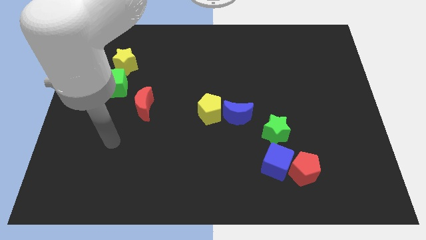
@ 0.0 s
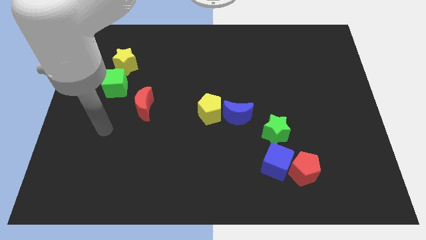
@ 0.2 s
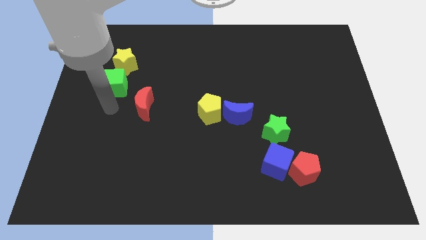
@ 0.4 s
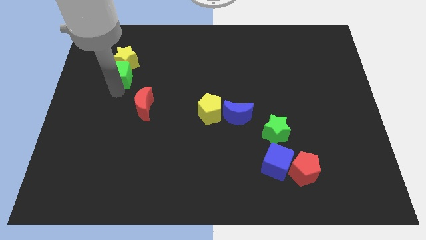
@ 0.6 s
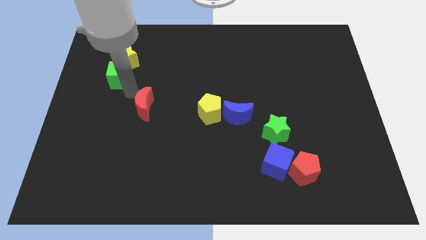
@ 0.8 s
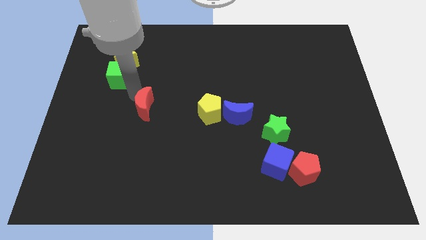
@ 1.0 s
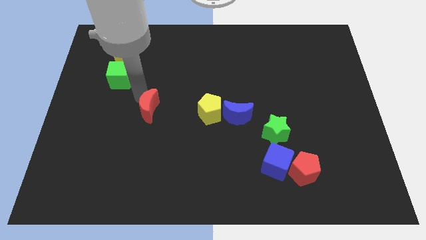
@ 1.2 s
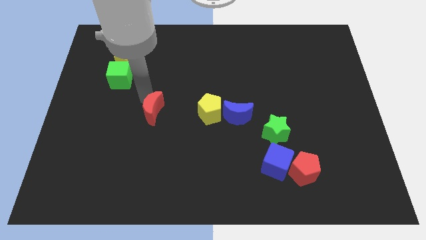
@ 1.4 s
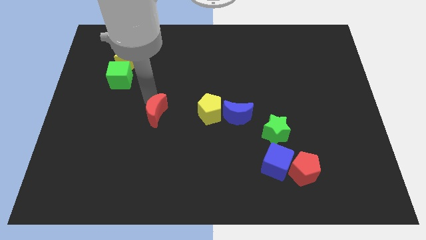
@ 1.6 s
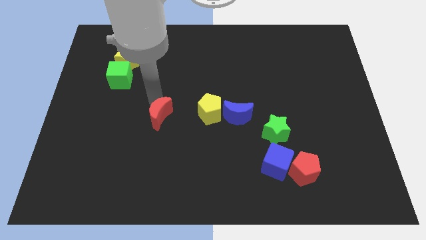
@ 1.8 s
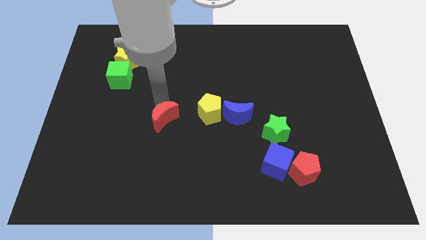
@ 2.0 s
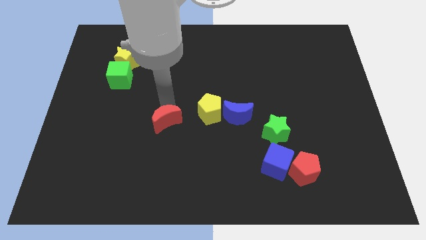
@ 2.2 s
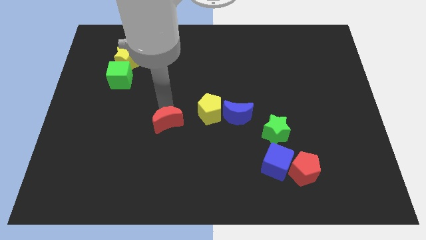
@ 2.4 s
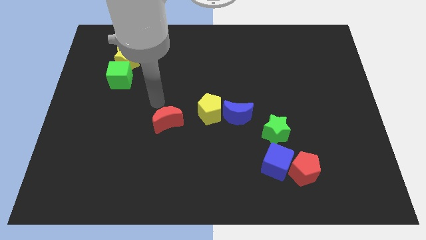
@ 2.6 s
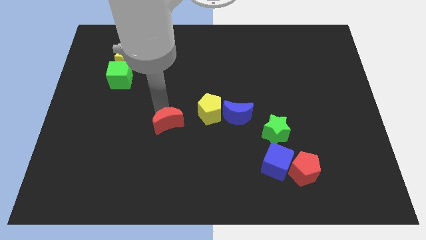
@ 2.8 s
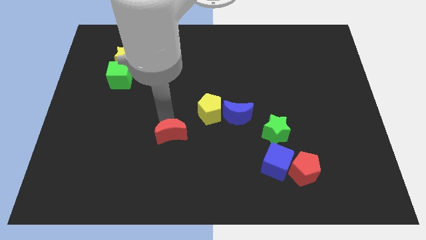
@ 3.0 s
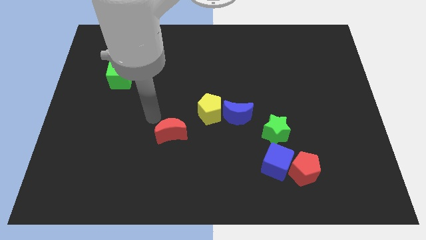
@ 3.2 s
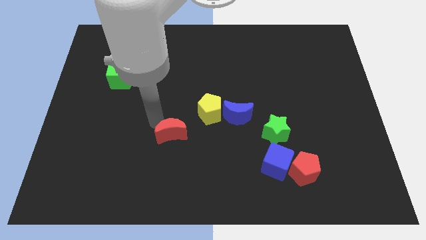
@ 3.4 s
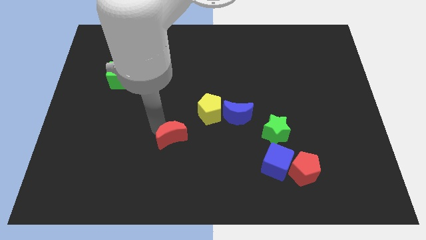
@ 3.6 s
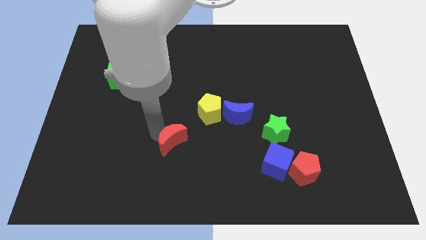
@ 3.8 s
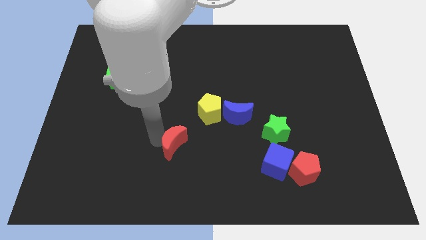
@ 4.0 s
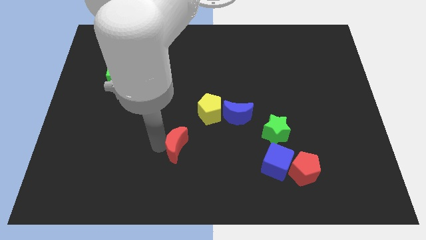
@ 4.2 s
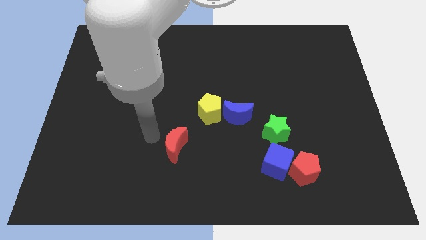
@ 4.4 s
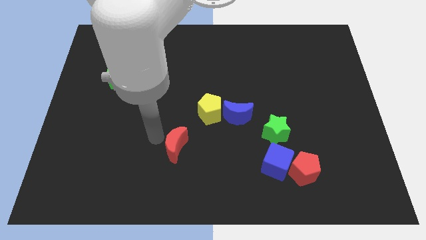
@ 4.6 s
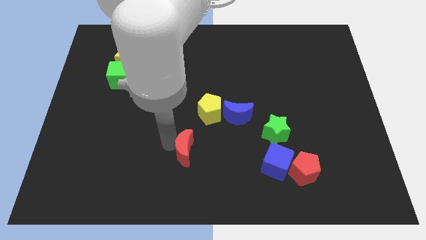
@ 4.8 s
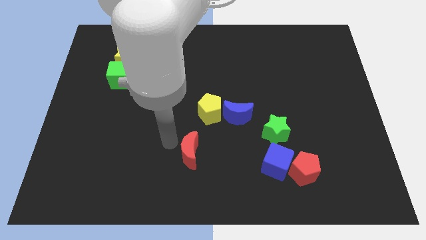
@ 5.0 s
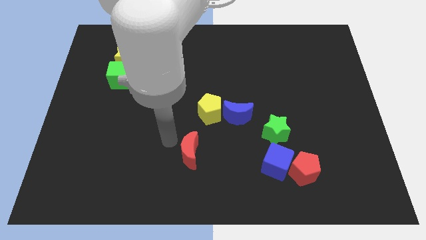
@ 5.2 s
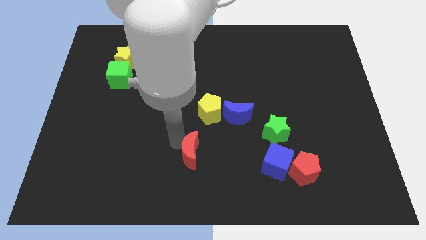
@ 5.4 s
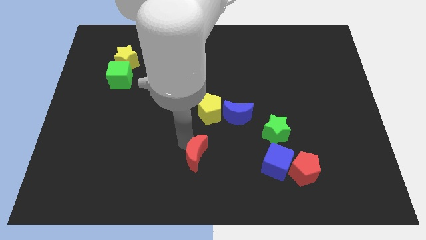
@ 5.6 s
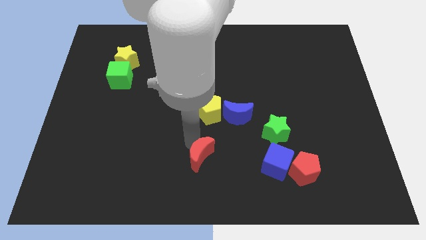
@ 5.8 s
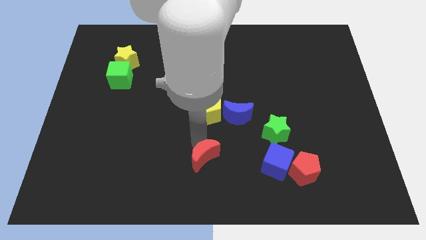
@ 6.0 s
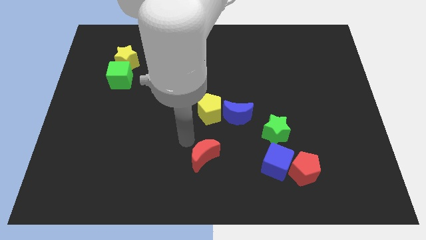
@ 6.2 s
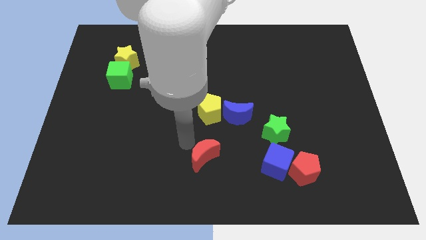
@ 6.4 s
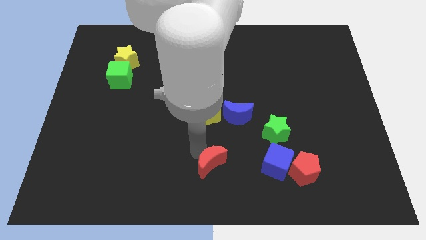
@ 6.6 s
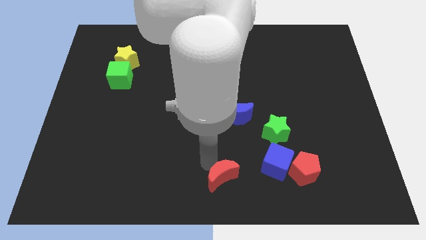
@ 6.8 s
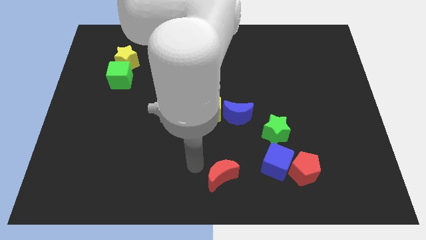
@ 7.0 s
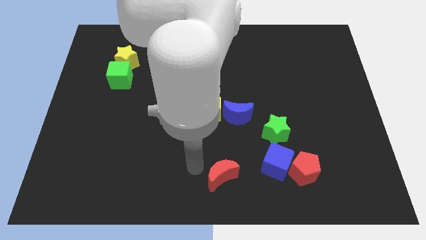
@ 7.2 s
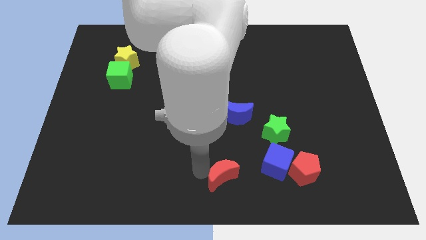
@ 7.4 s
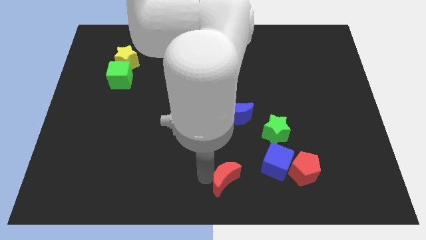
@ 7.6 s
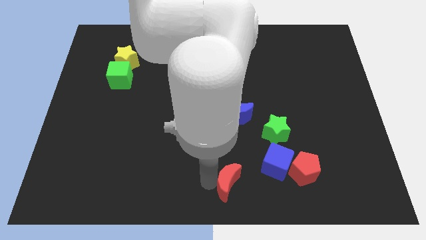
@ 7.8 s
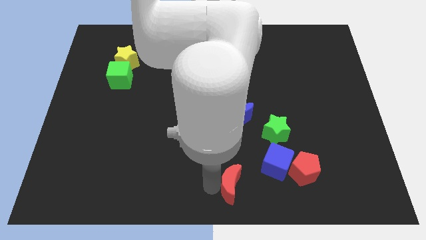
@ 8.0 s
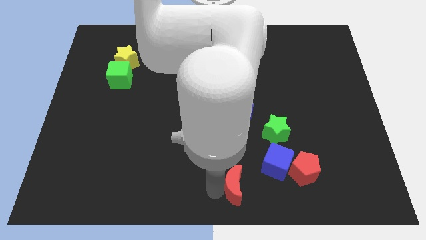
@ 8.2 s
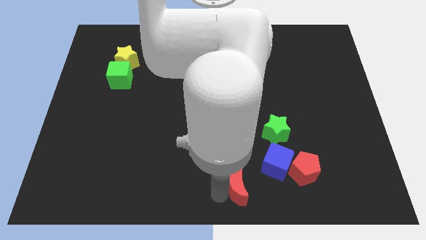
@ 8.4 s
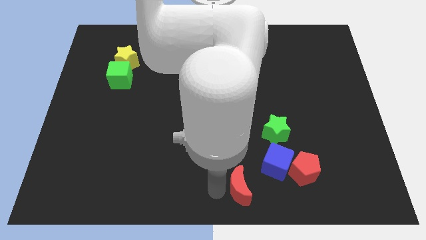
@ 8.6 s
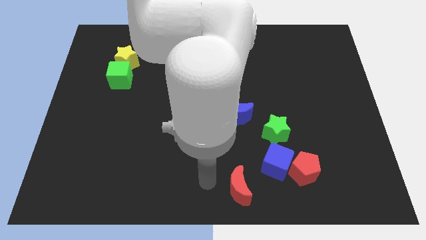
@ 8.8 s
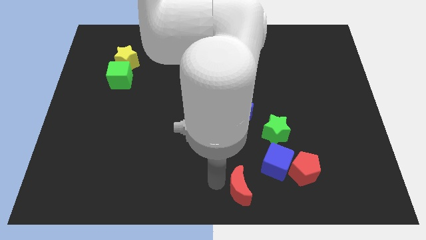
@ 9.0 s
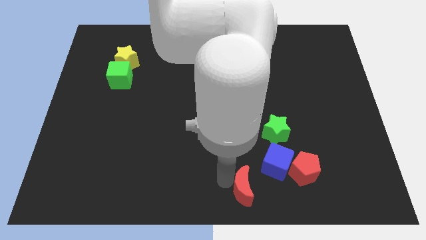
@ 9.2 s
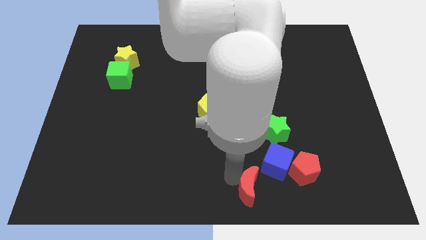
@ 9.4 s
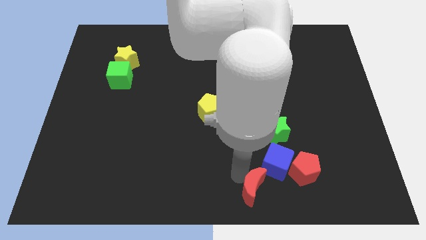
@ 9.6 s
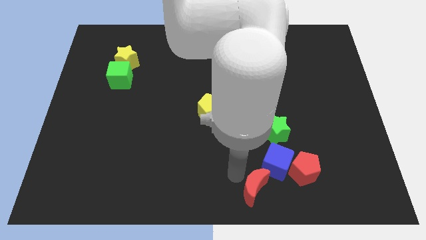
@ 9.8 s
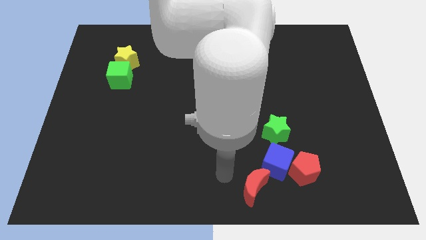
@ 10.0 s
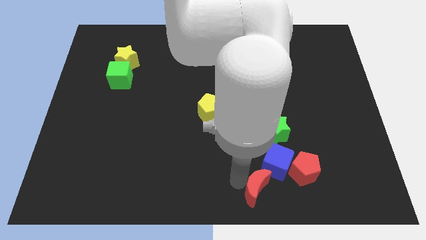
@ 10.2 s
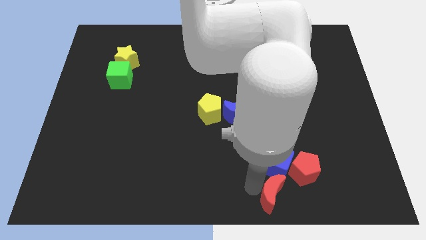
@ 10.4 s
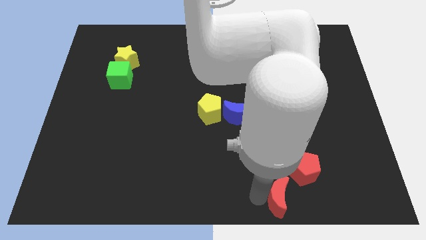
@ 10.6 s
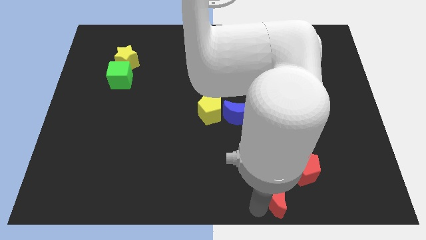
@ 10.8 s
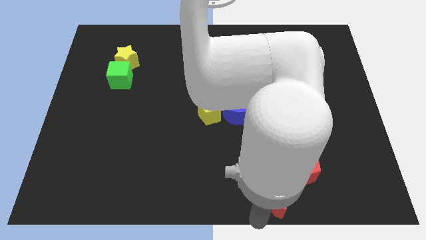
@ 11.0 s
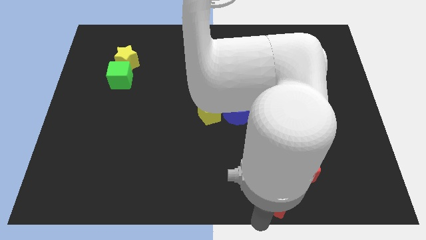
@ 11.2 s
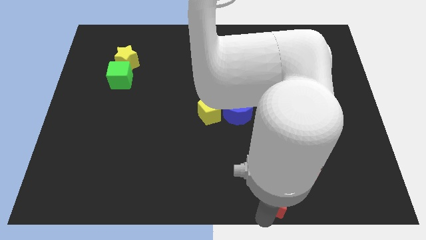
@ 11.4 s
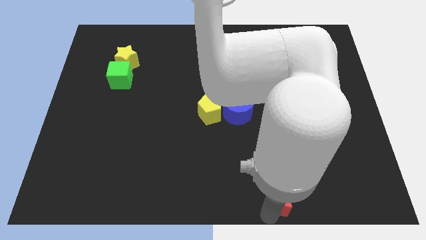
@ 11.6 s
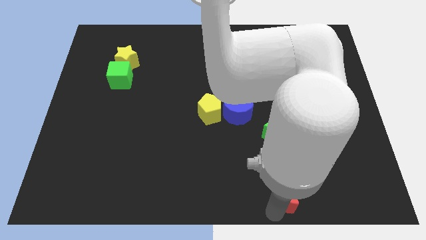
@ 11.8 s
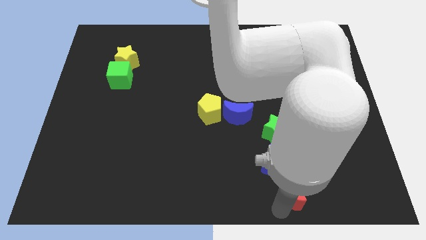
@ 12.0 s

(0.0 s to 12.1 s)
put the red moon towards the red pentagon

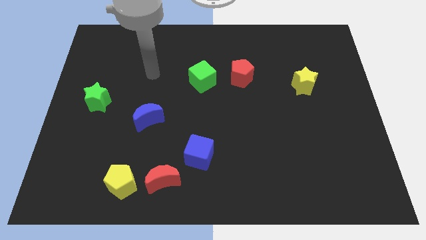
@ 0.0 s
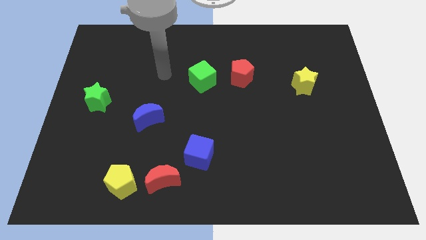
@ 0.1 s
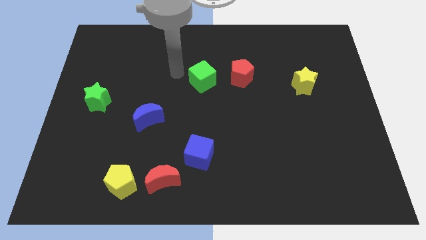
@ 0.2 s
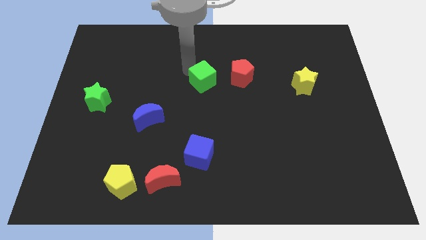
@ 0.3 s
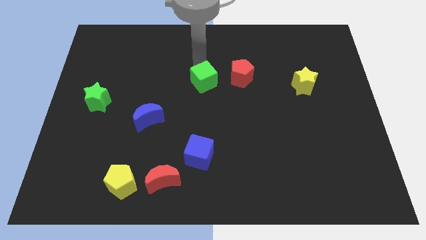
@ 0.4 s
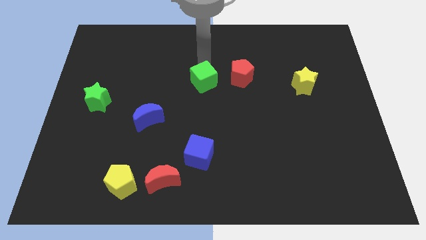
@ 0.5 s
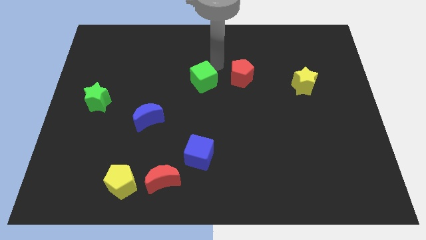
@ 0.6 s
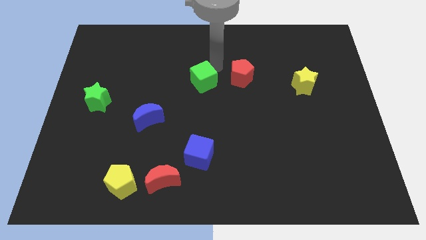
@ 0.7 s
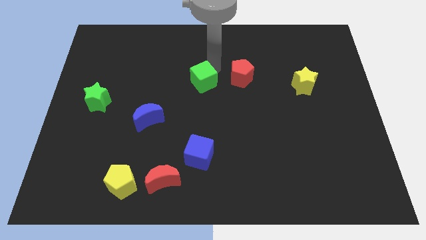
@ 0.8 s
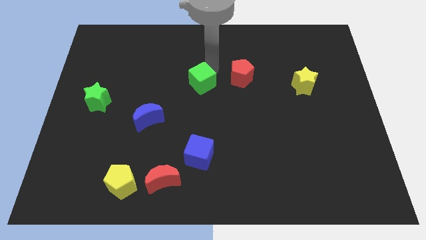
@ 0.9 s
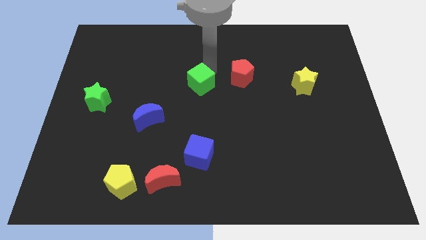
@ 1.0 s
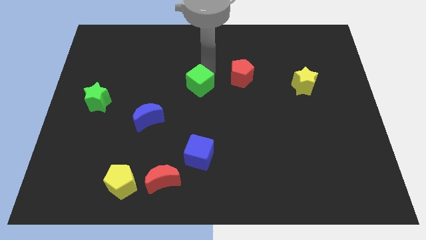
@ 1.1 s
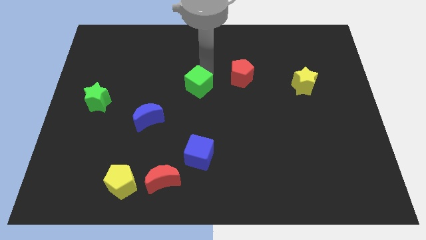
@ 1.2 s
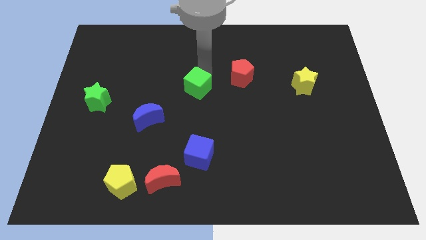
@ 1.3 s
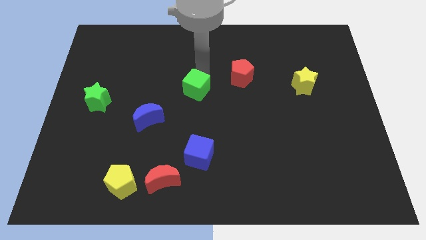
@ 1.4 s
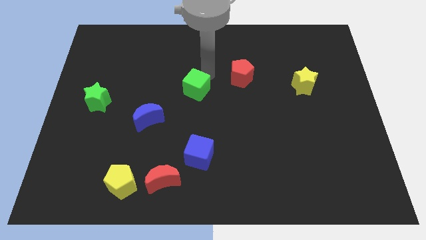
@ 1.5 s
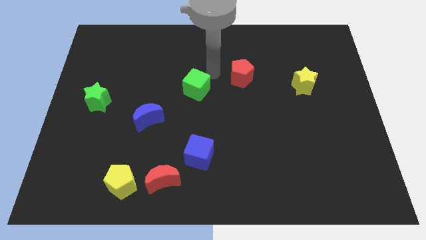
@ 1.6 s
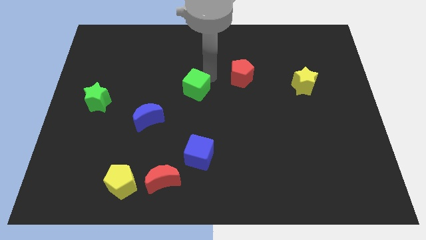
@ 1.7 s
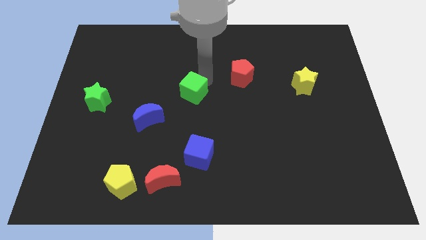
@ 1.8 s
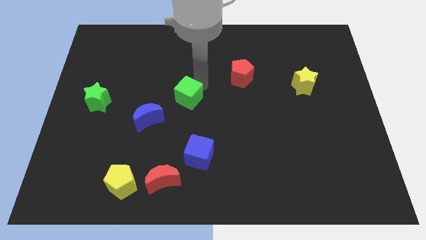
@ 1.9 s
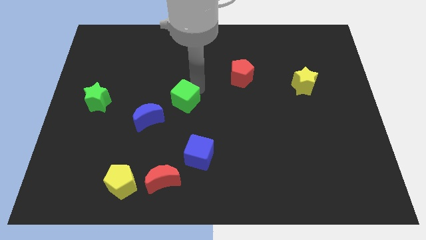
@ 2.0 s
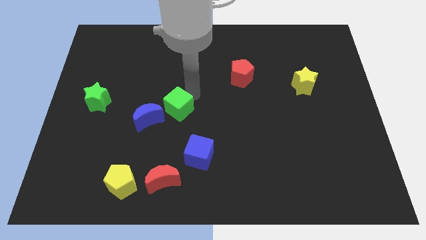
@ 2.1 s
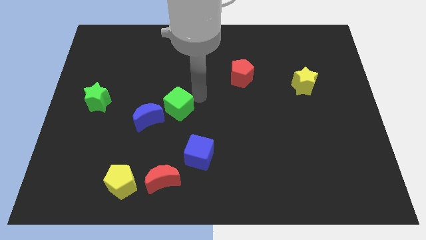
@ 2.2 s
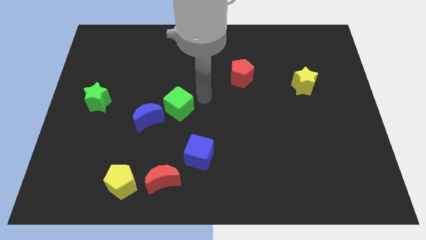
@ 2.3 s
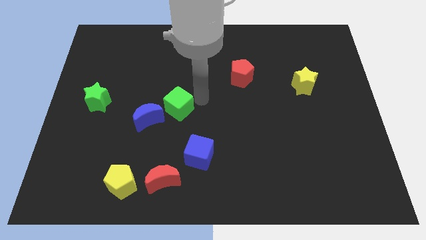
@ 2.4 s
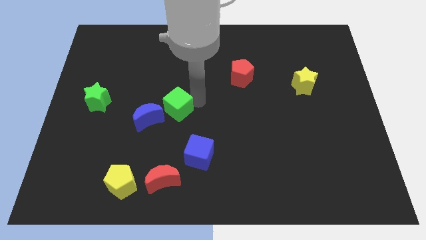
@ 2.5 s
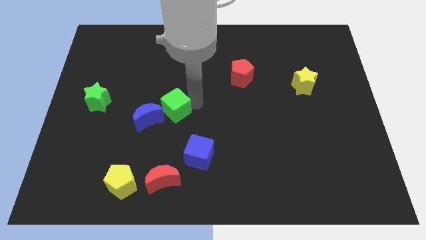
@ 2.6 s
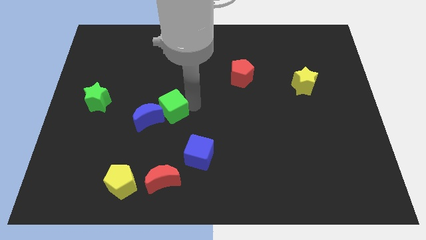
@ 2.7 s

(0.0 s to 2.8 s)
put the green cube towards the blue moon
